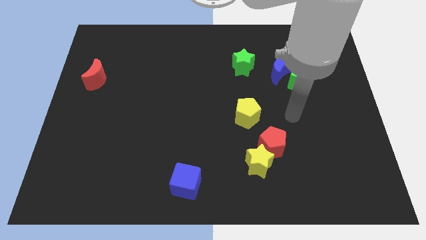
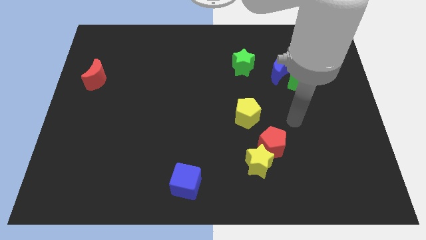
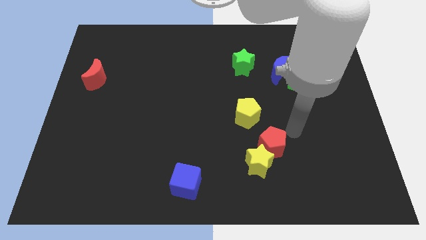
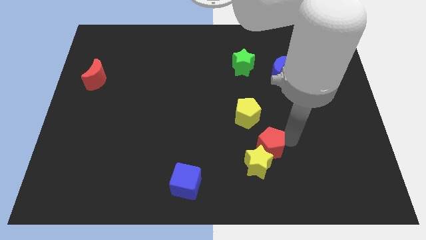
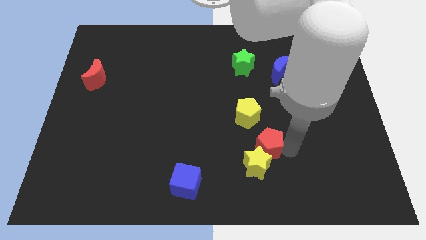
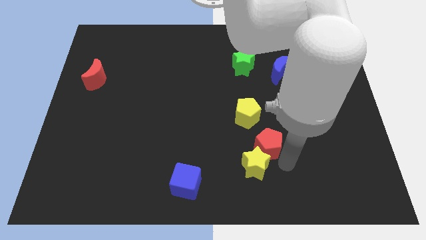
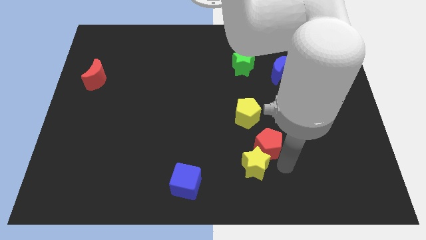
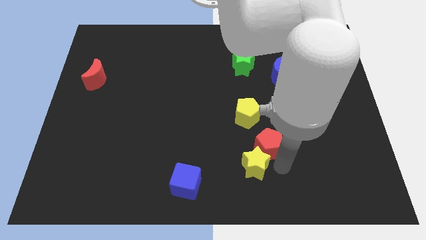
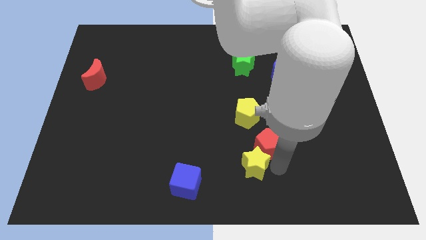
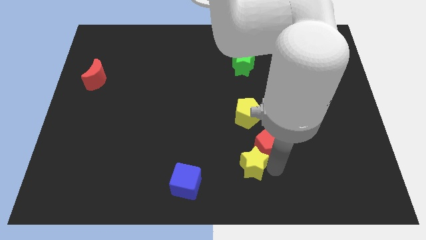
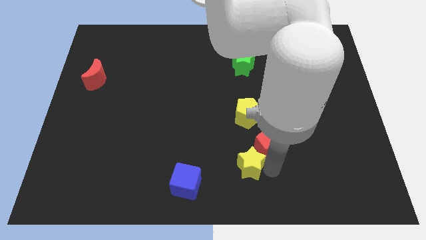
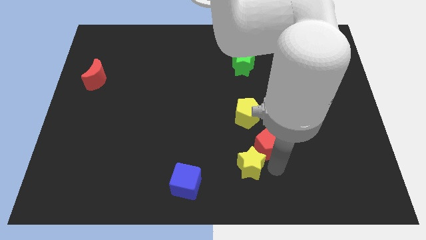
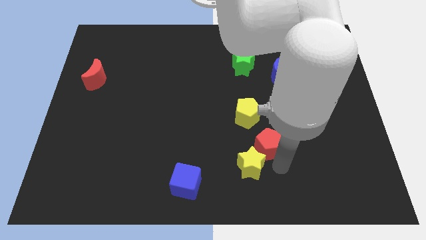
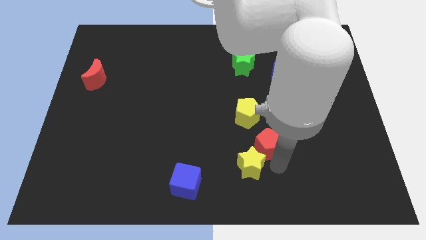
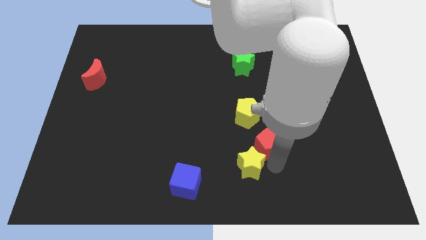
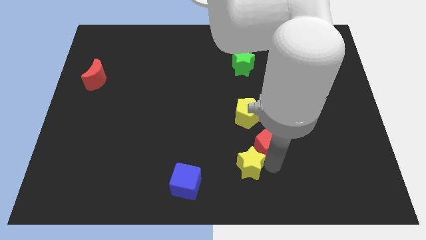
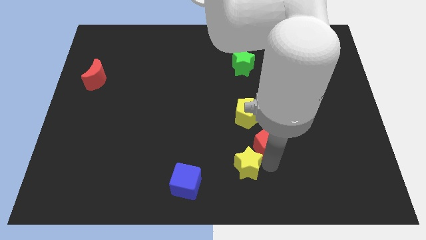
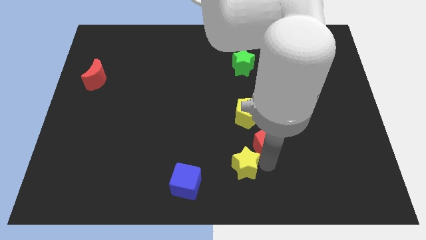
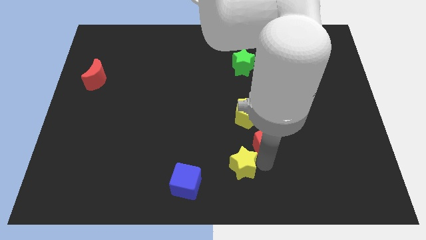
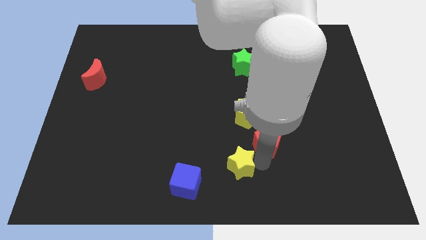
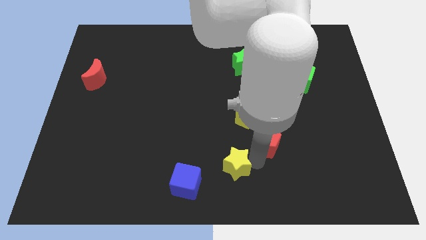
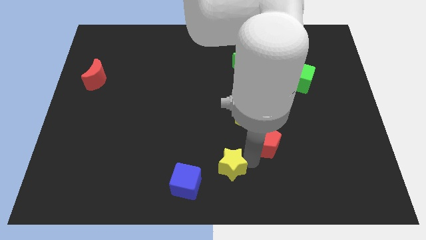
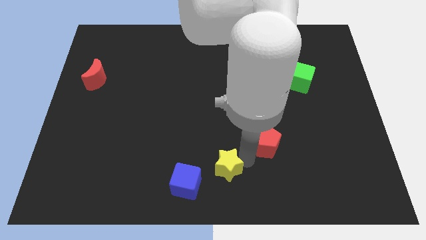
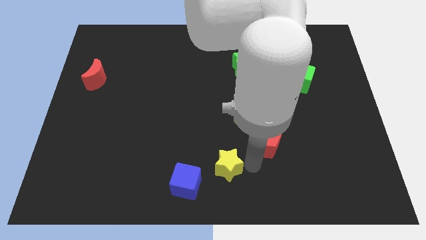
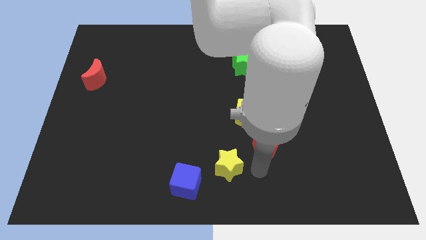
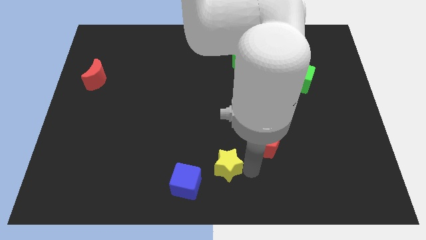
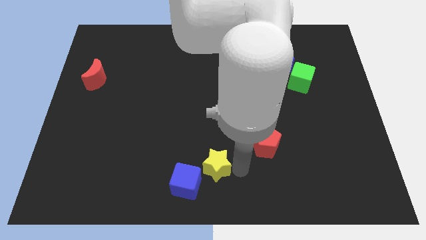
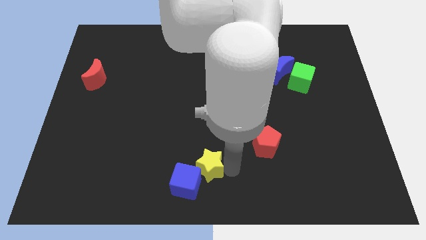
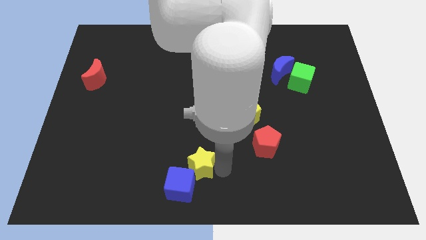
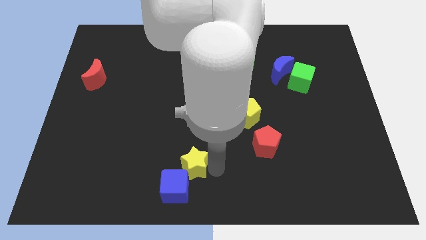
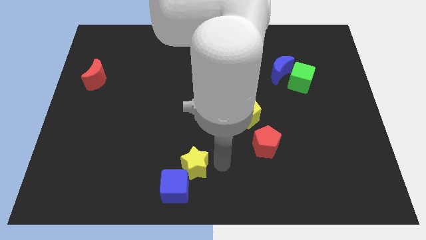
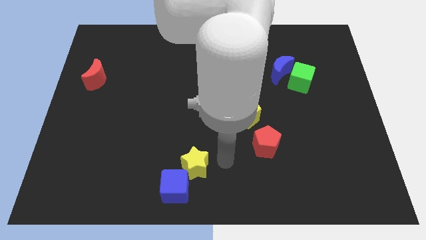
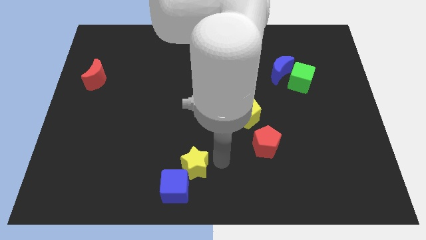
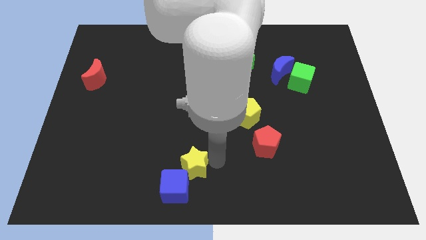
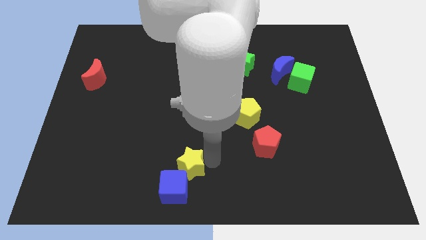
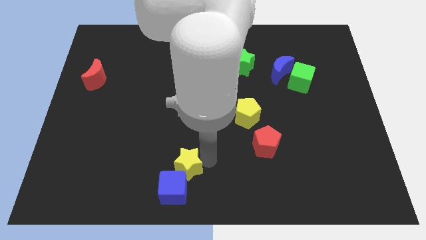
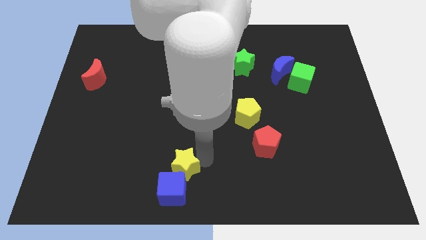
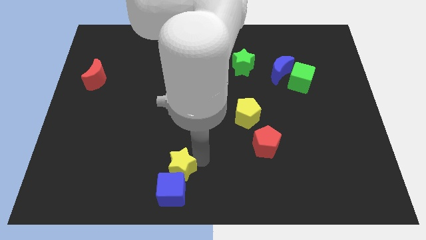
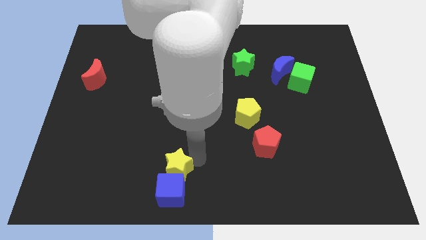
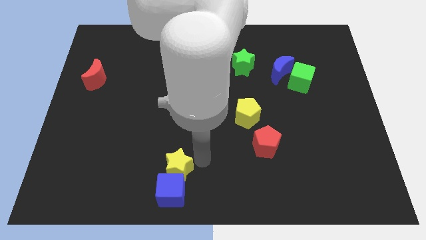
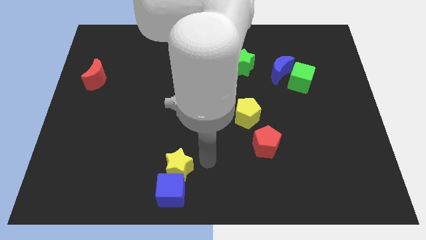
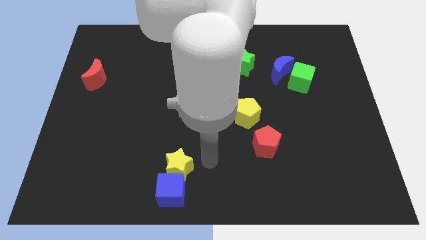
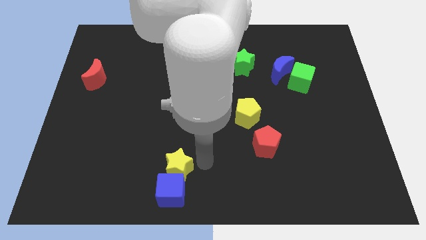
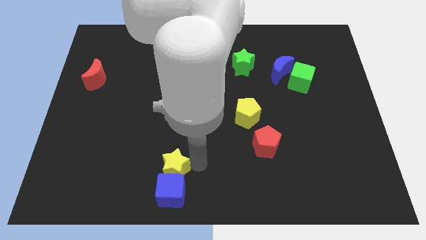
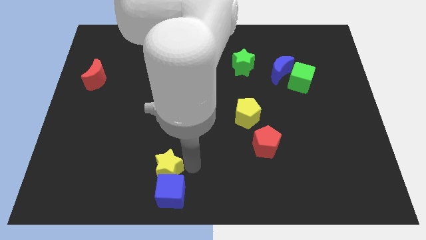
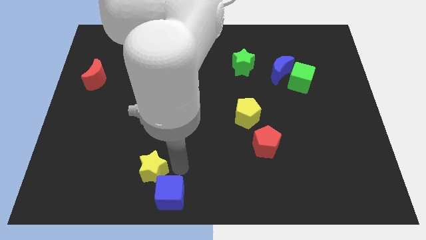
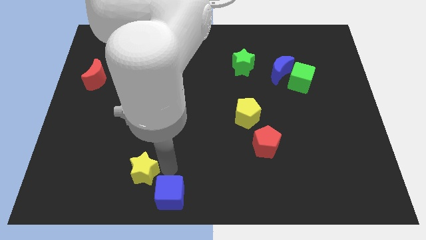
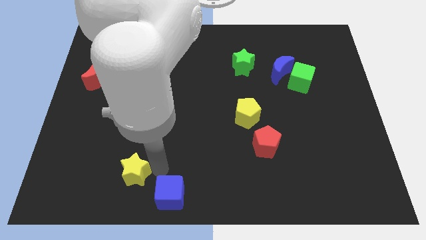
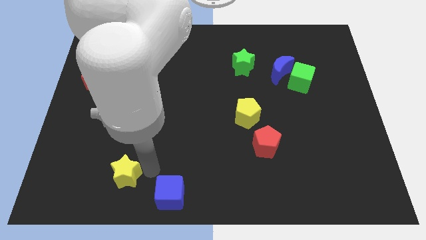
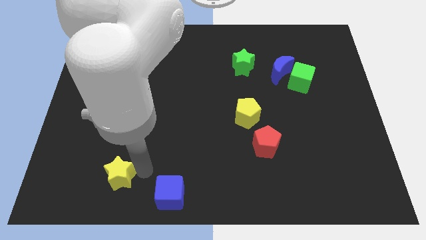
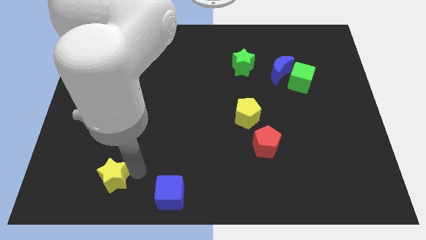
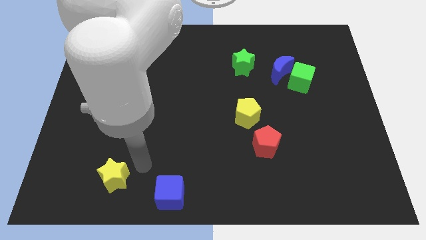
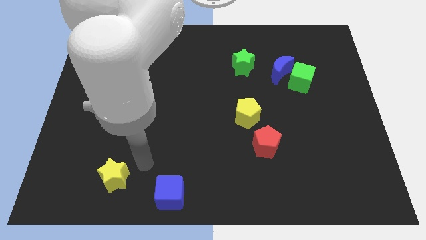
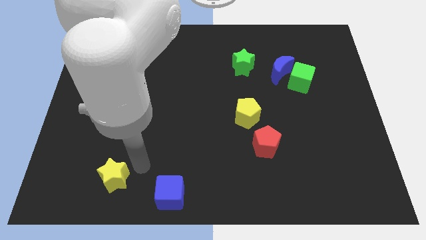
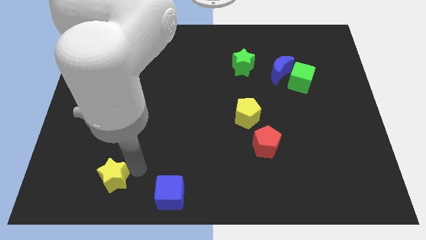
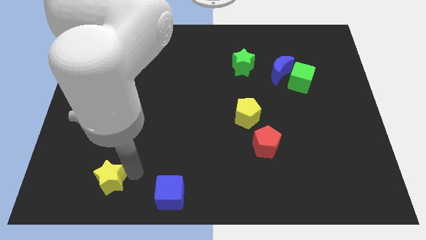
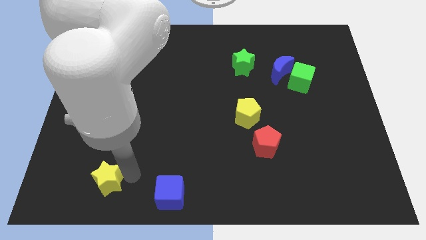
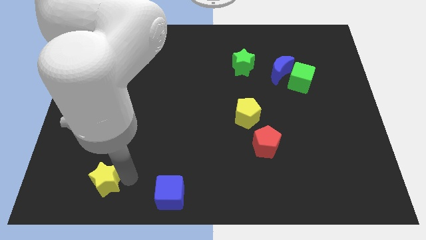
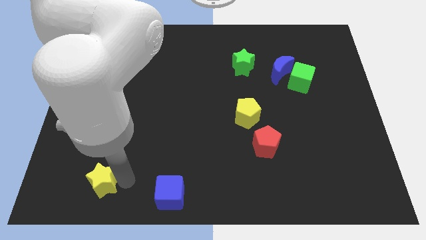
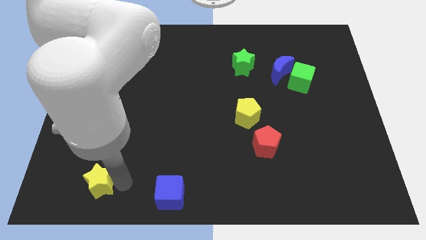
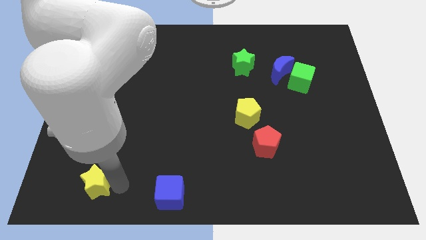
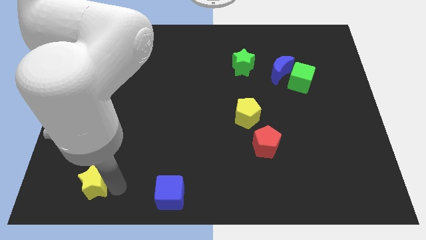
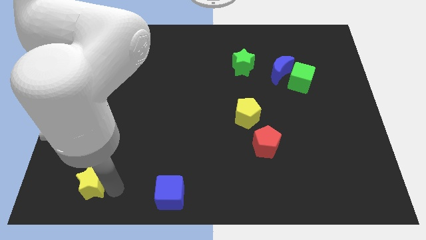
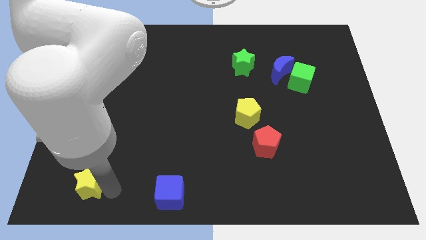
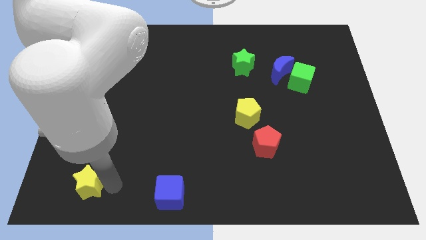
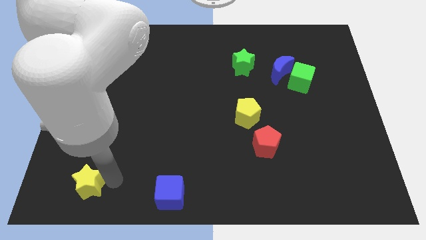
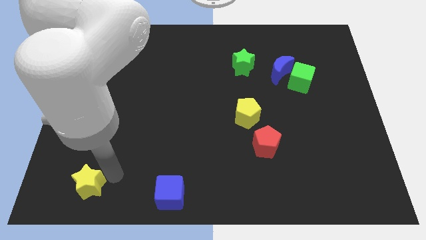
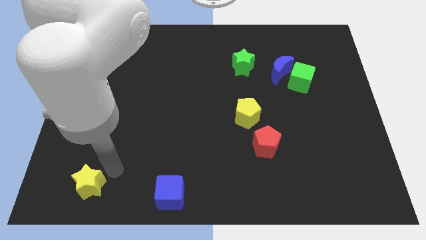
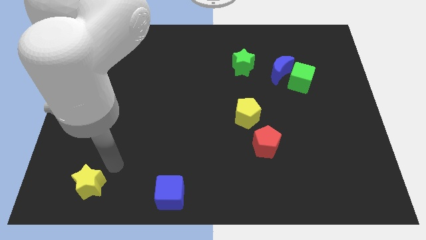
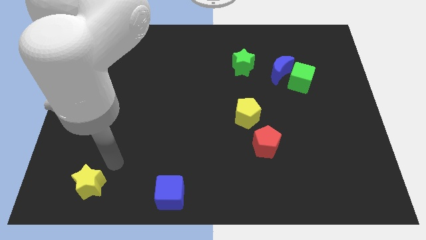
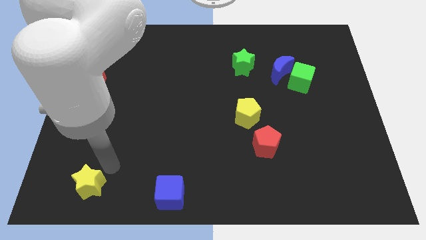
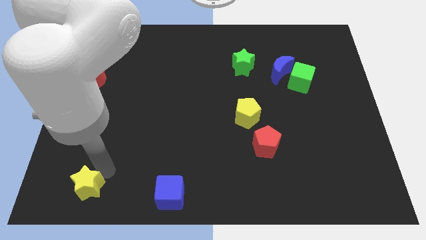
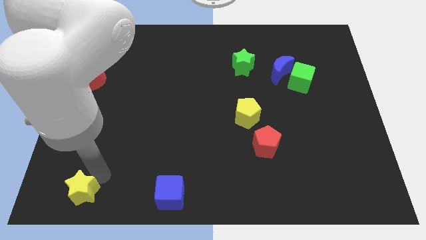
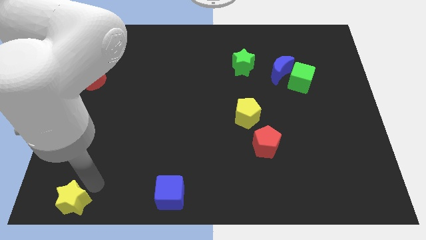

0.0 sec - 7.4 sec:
push the yellow star to the bottom left corner
